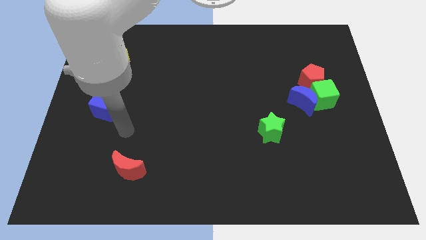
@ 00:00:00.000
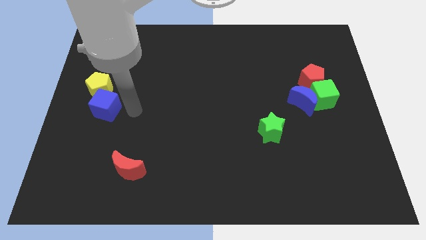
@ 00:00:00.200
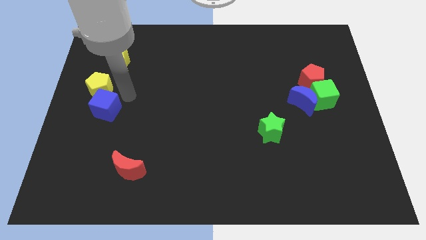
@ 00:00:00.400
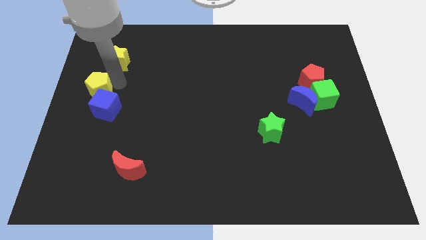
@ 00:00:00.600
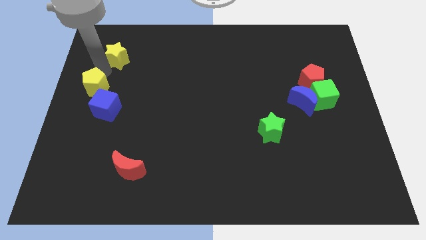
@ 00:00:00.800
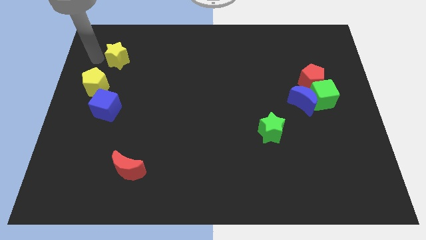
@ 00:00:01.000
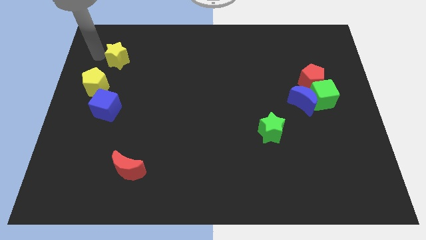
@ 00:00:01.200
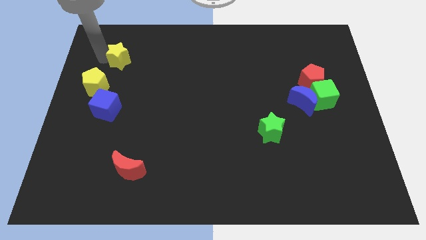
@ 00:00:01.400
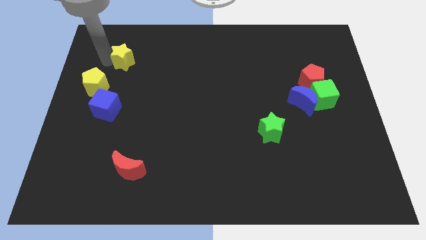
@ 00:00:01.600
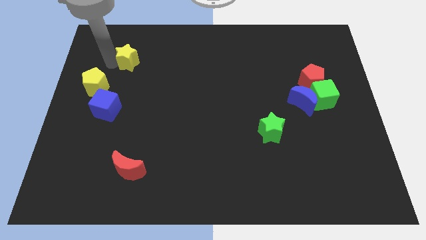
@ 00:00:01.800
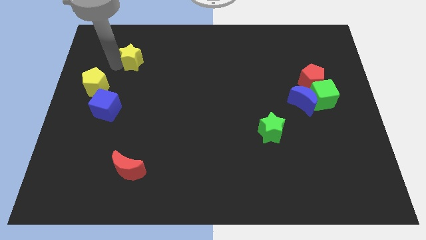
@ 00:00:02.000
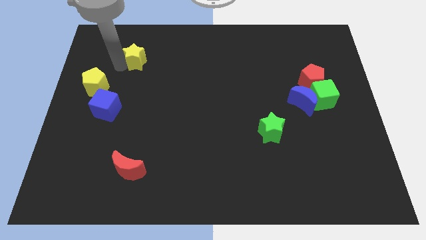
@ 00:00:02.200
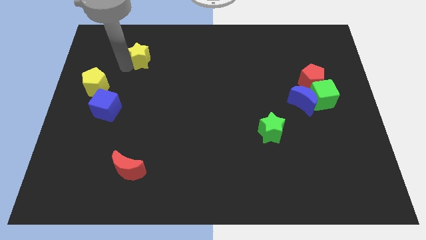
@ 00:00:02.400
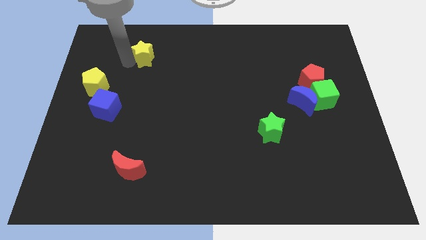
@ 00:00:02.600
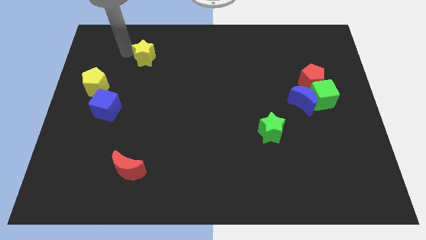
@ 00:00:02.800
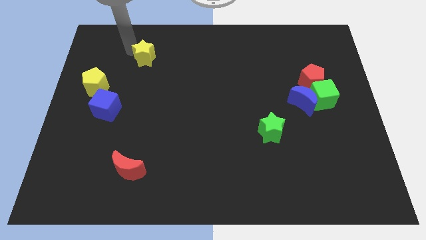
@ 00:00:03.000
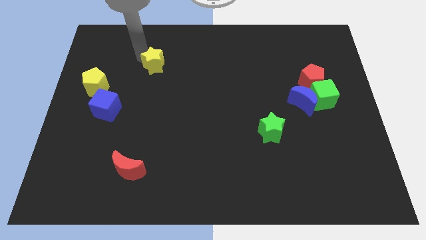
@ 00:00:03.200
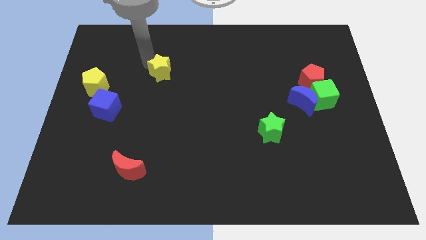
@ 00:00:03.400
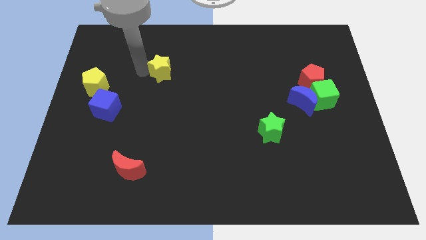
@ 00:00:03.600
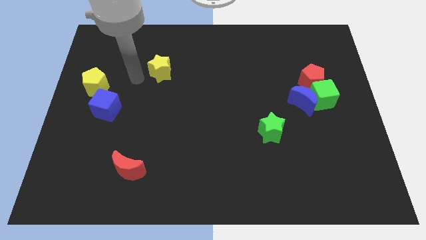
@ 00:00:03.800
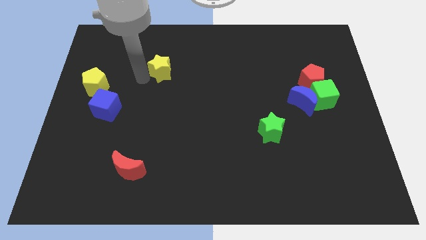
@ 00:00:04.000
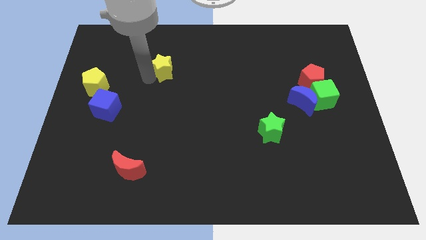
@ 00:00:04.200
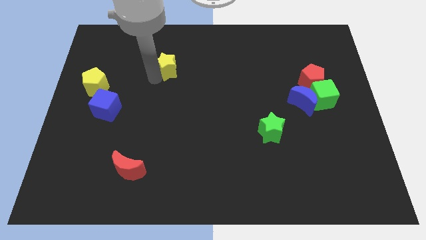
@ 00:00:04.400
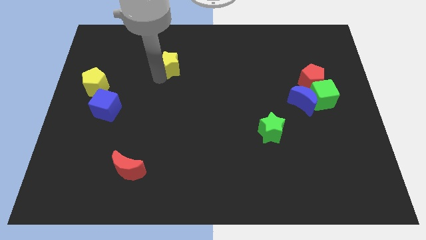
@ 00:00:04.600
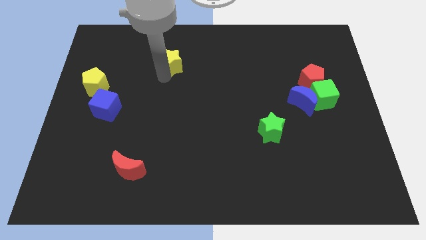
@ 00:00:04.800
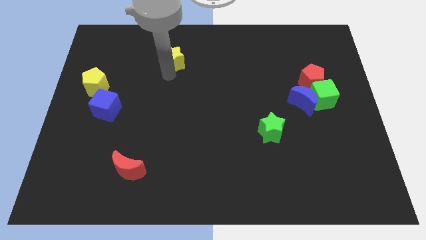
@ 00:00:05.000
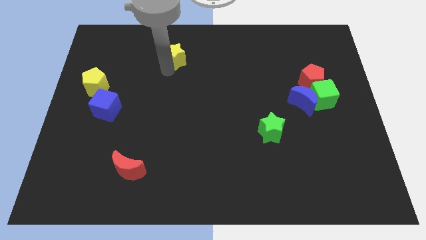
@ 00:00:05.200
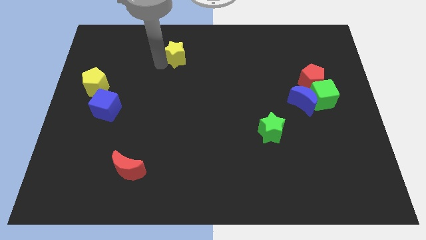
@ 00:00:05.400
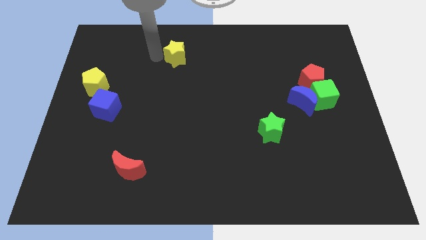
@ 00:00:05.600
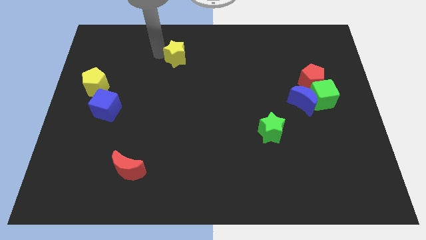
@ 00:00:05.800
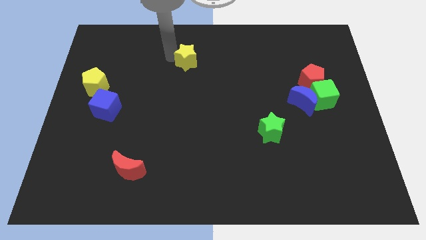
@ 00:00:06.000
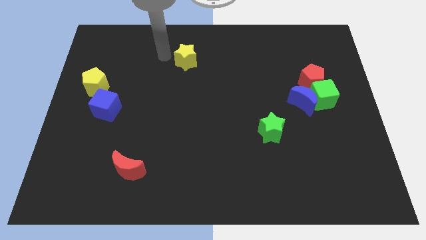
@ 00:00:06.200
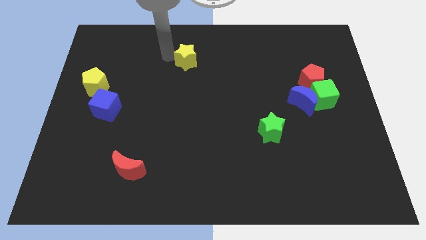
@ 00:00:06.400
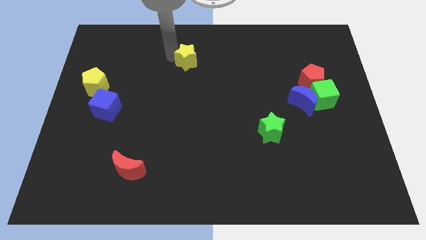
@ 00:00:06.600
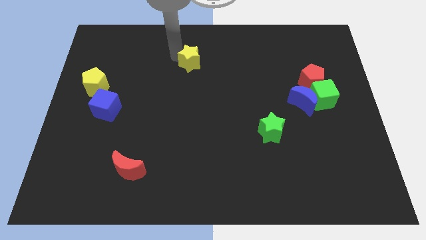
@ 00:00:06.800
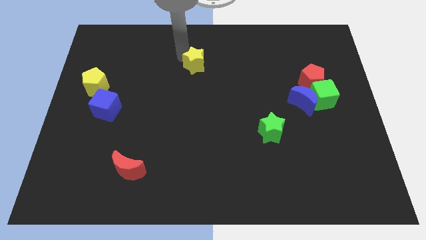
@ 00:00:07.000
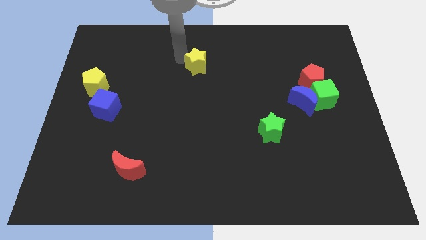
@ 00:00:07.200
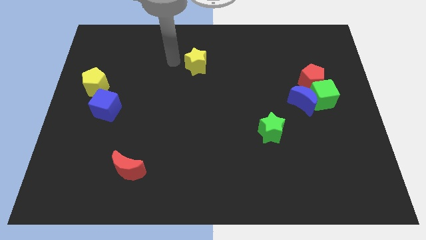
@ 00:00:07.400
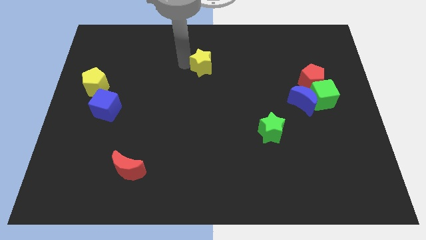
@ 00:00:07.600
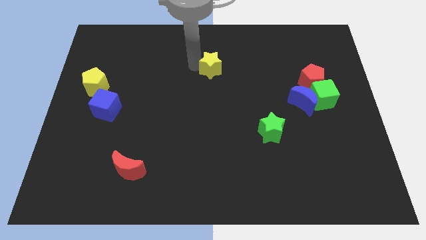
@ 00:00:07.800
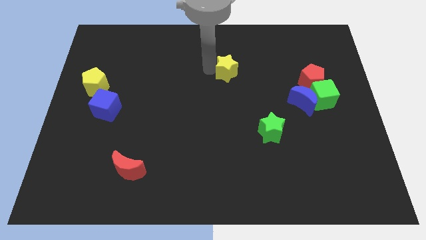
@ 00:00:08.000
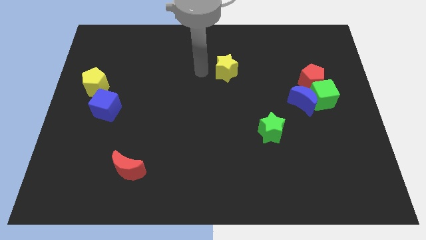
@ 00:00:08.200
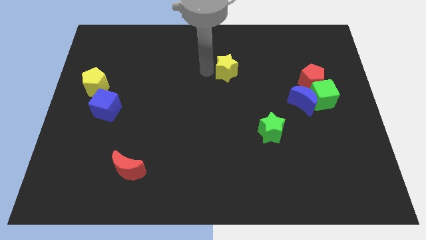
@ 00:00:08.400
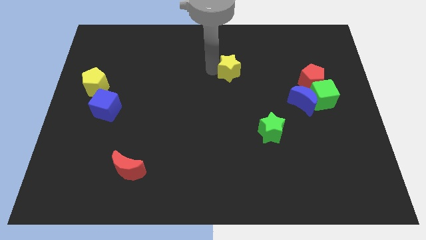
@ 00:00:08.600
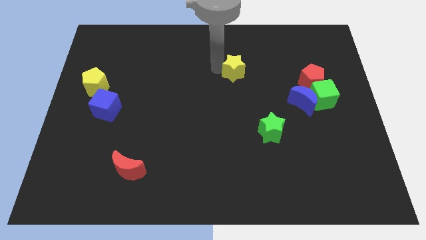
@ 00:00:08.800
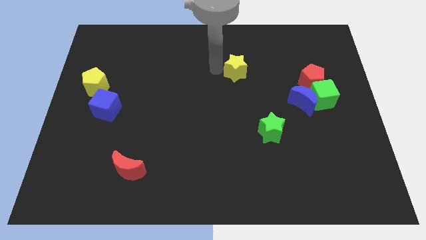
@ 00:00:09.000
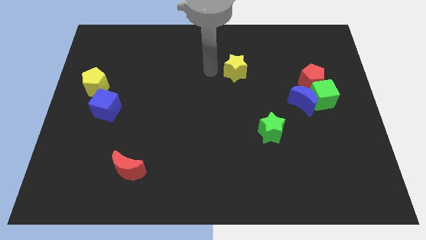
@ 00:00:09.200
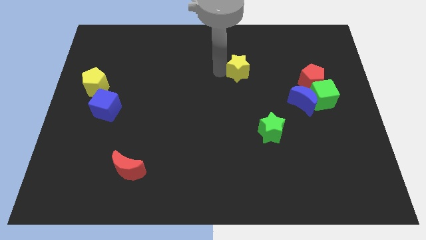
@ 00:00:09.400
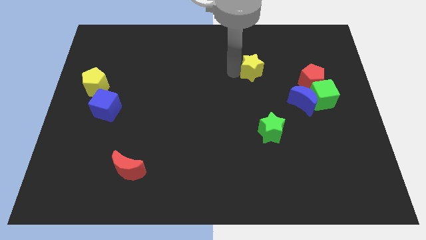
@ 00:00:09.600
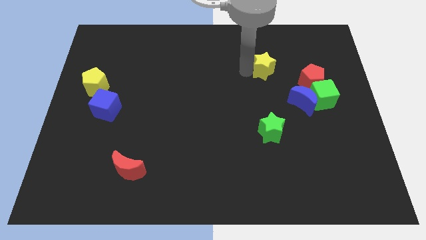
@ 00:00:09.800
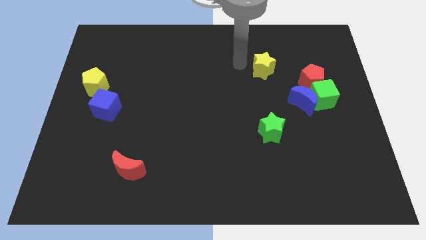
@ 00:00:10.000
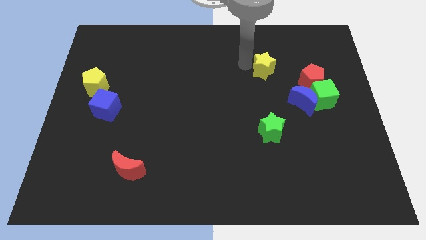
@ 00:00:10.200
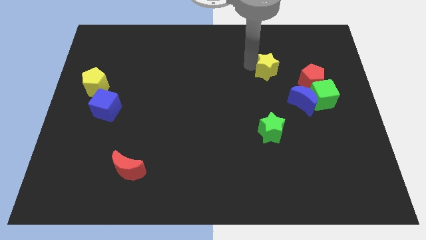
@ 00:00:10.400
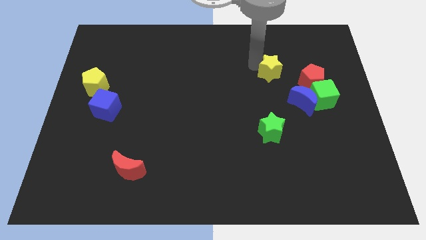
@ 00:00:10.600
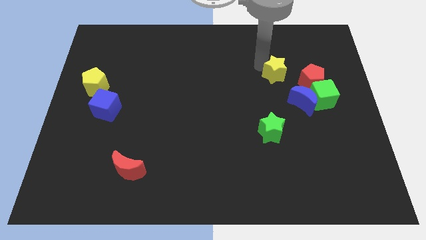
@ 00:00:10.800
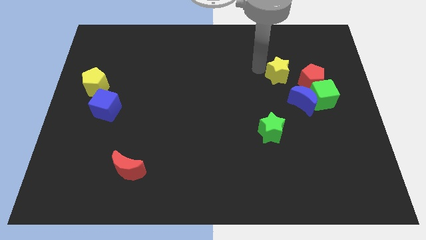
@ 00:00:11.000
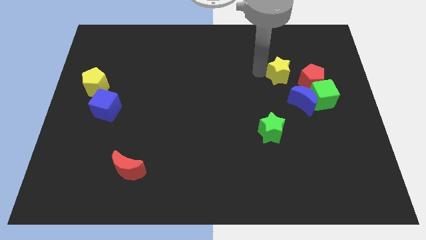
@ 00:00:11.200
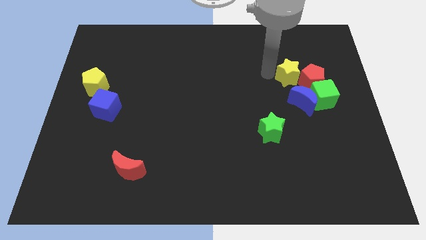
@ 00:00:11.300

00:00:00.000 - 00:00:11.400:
push the yellow star close to the red pentagon

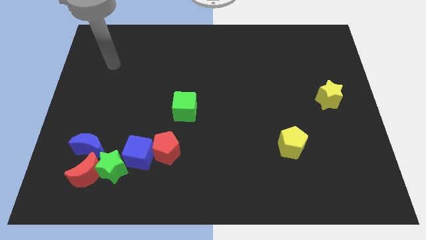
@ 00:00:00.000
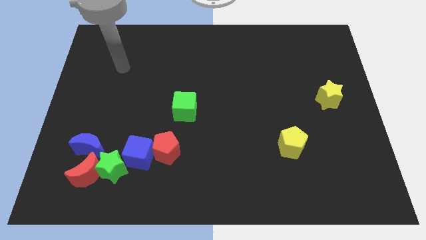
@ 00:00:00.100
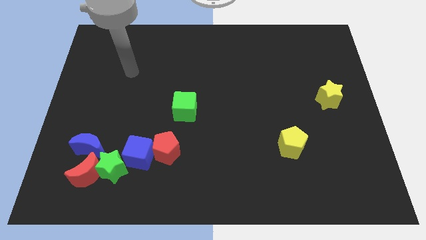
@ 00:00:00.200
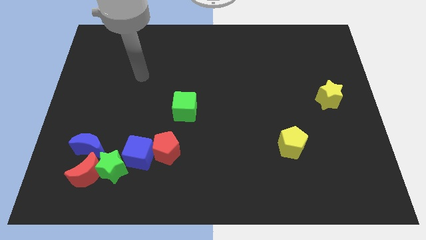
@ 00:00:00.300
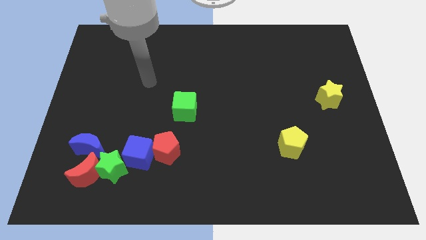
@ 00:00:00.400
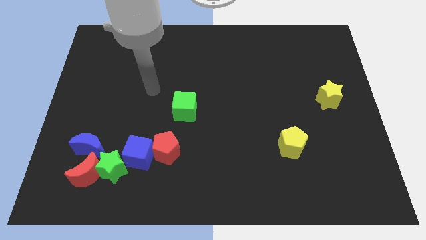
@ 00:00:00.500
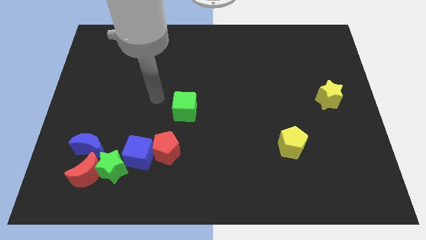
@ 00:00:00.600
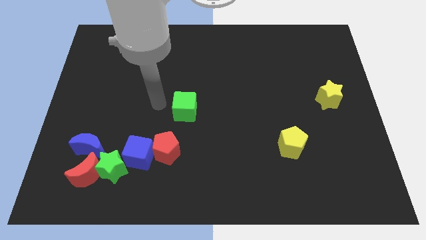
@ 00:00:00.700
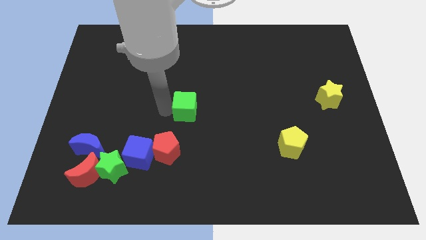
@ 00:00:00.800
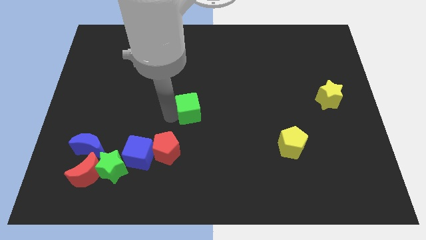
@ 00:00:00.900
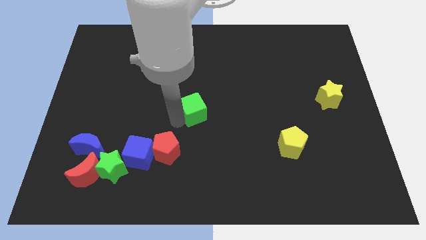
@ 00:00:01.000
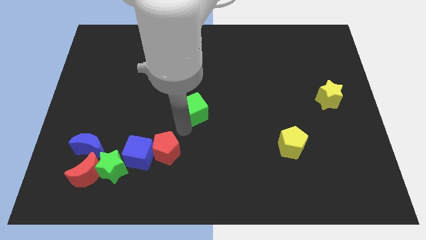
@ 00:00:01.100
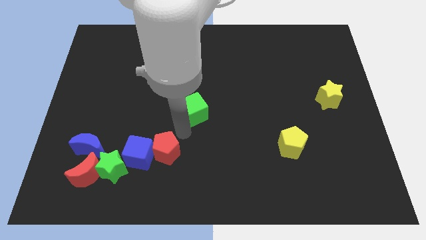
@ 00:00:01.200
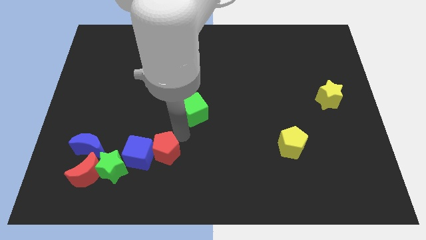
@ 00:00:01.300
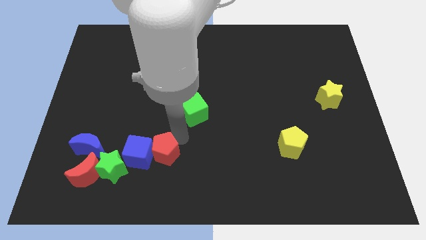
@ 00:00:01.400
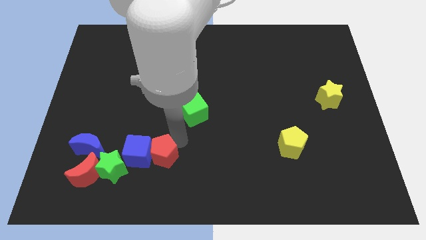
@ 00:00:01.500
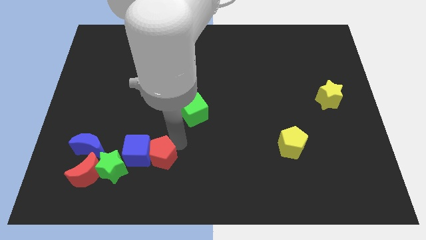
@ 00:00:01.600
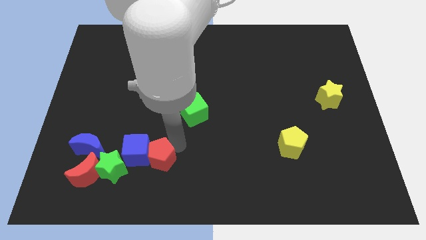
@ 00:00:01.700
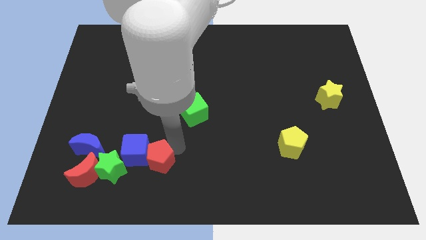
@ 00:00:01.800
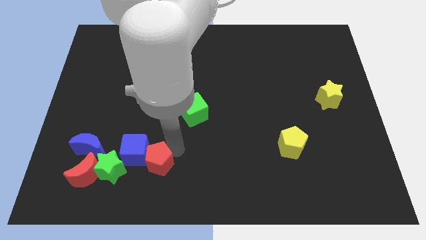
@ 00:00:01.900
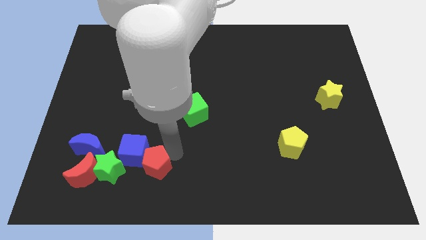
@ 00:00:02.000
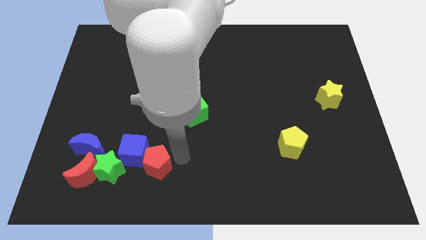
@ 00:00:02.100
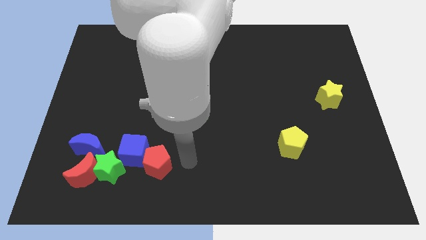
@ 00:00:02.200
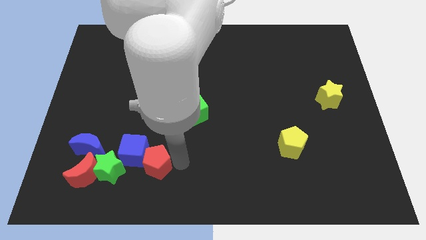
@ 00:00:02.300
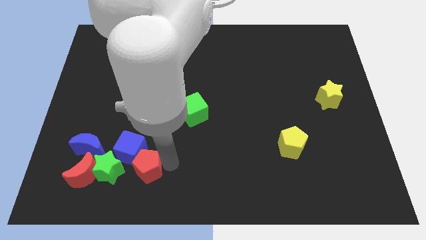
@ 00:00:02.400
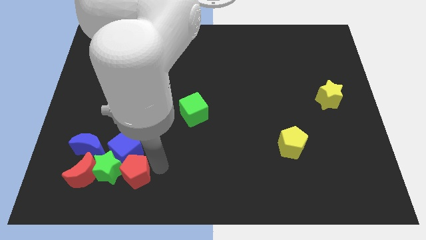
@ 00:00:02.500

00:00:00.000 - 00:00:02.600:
push the red pentagon close to the green star
